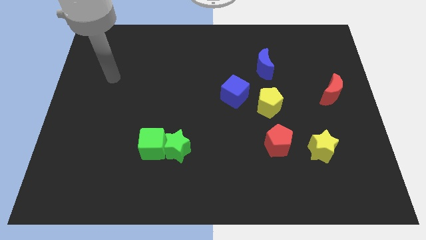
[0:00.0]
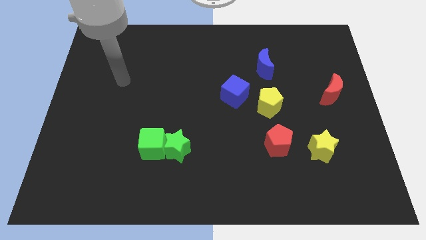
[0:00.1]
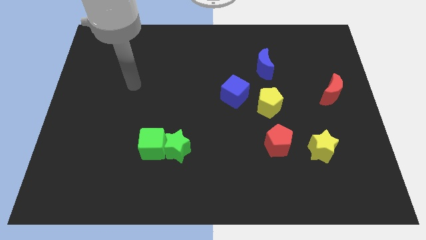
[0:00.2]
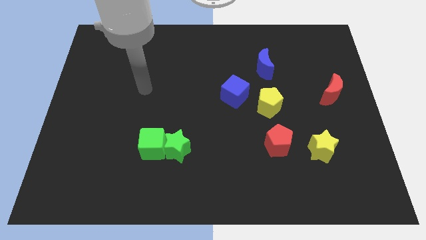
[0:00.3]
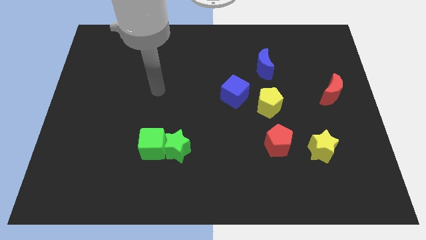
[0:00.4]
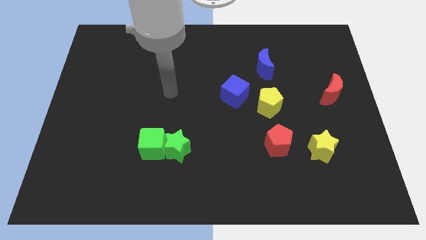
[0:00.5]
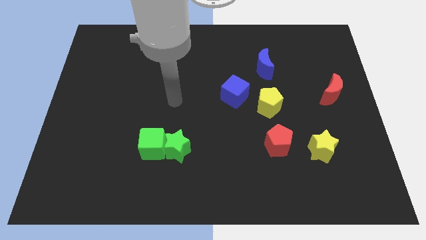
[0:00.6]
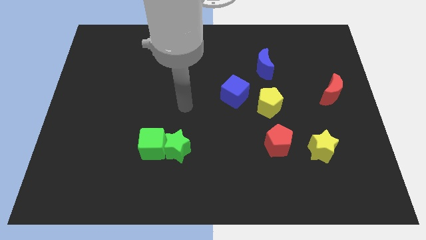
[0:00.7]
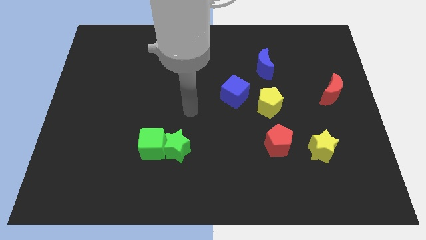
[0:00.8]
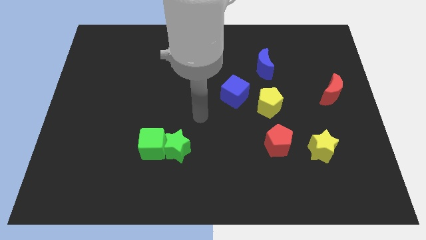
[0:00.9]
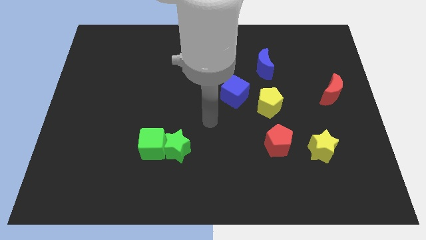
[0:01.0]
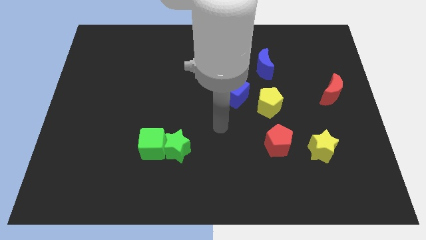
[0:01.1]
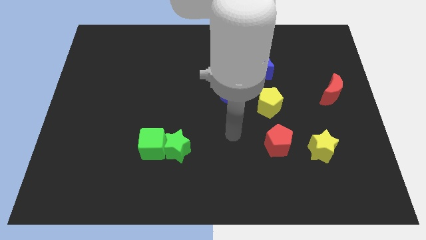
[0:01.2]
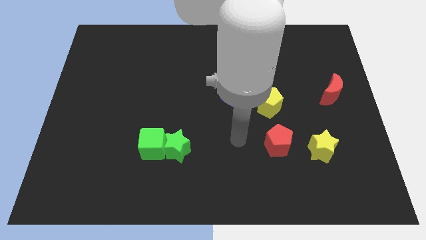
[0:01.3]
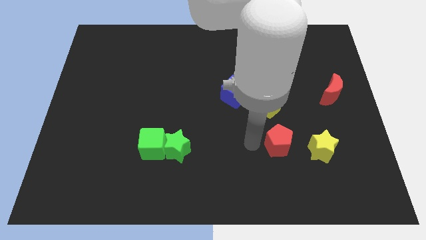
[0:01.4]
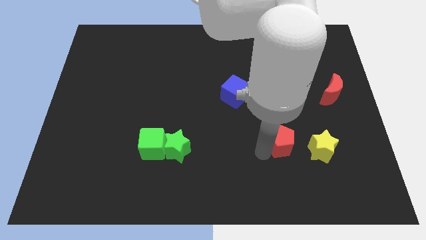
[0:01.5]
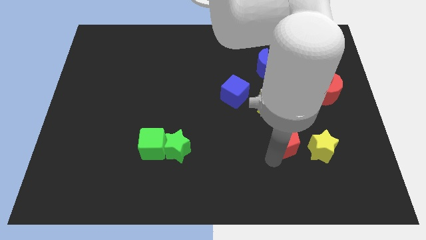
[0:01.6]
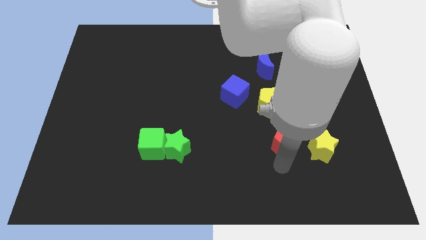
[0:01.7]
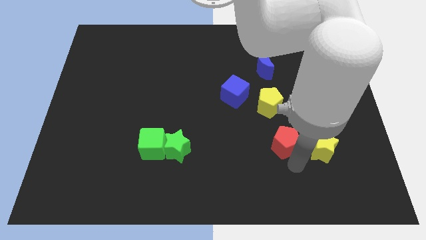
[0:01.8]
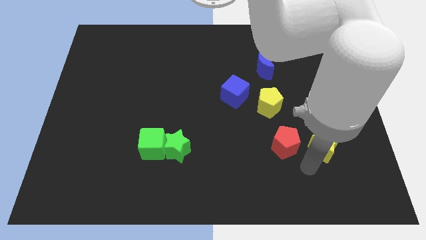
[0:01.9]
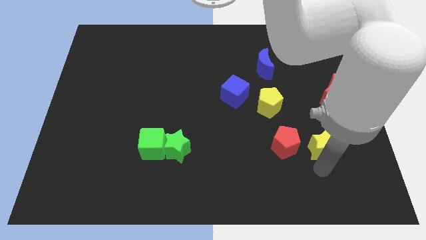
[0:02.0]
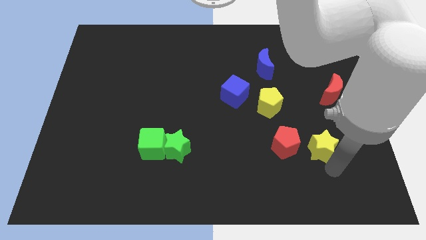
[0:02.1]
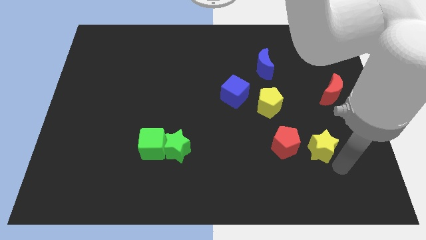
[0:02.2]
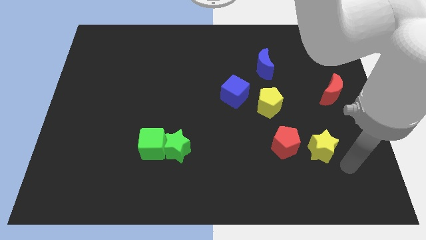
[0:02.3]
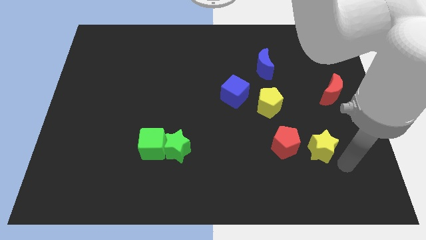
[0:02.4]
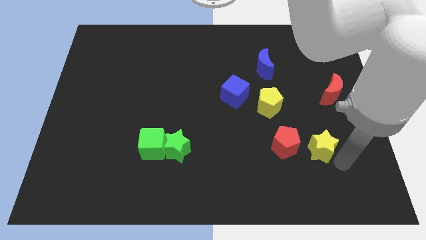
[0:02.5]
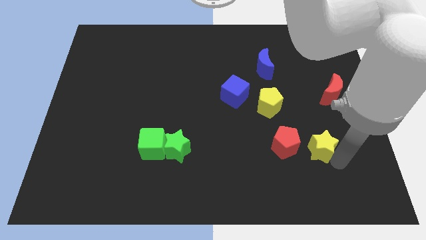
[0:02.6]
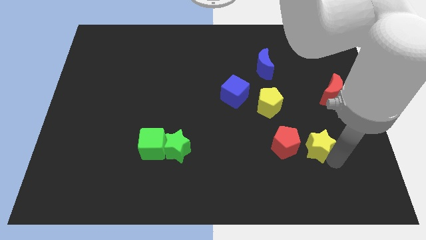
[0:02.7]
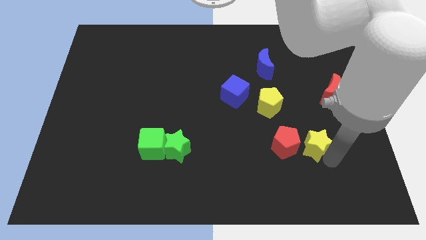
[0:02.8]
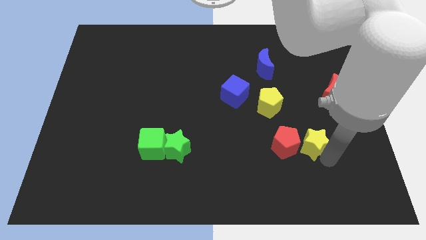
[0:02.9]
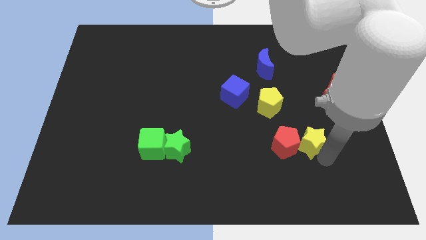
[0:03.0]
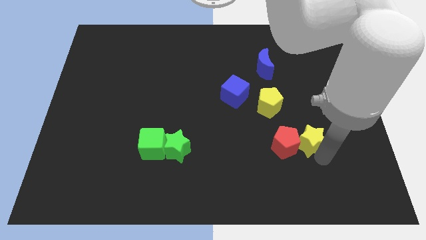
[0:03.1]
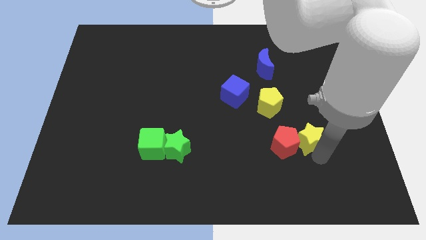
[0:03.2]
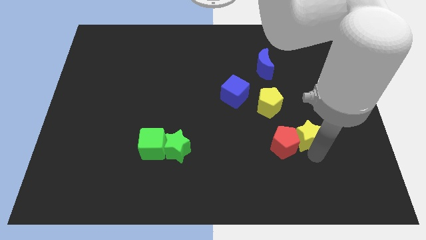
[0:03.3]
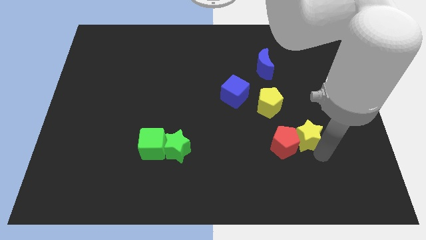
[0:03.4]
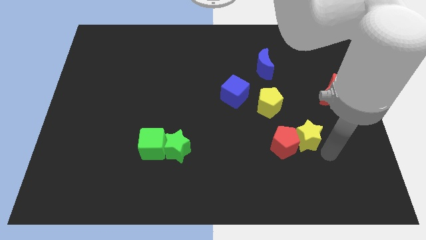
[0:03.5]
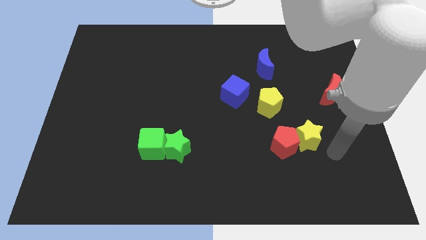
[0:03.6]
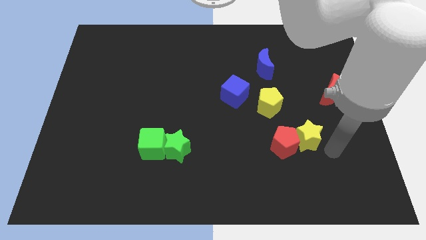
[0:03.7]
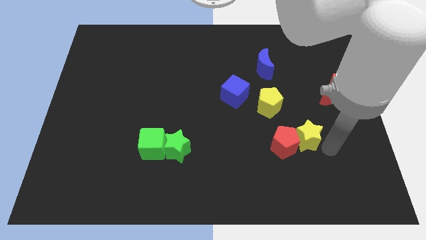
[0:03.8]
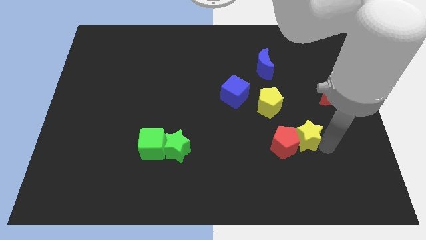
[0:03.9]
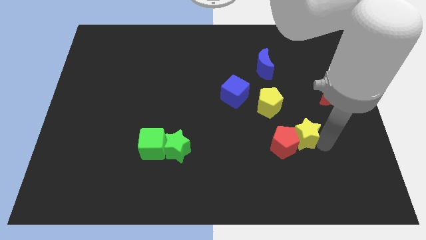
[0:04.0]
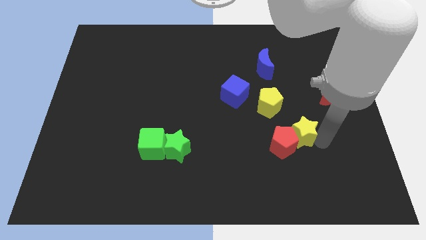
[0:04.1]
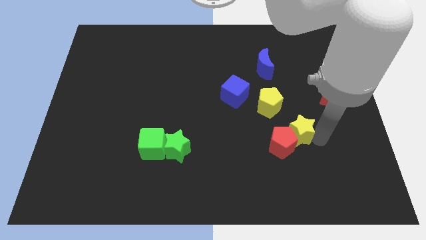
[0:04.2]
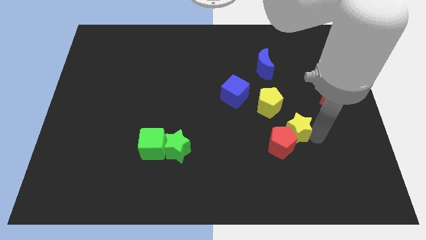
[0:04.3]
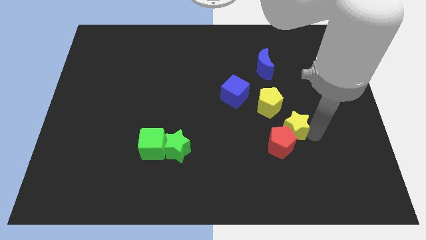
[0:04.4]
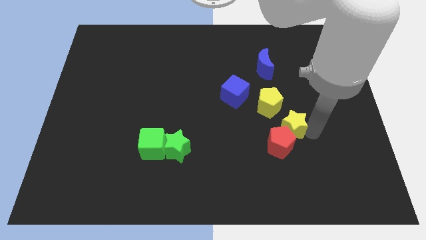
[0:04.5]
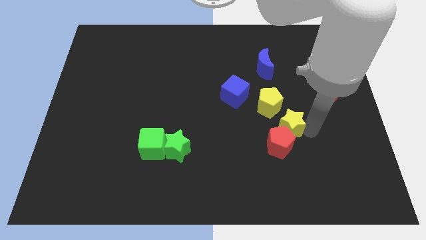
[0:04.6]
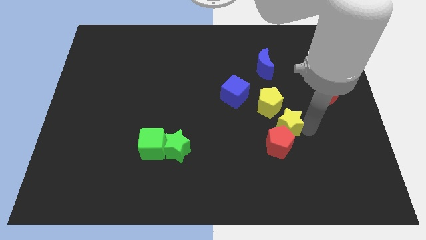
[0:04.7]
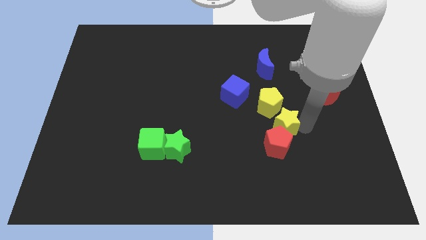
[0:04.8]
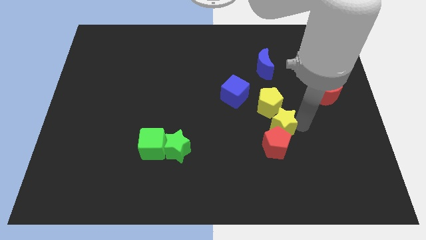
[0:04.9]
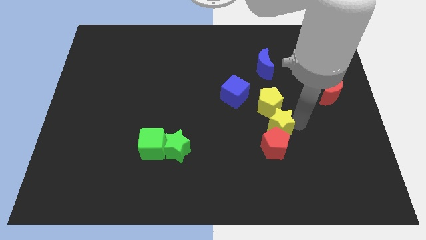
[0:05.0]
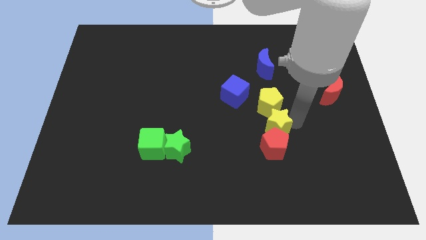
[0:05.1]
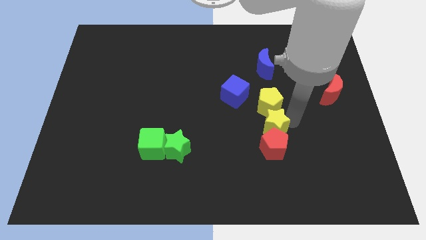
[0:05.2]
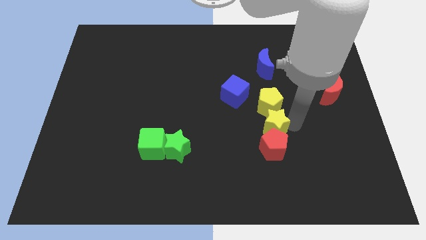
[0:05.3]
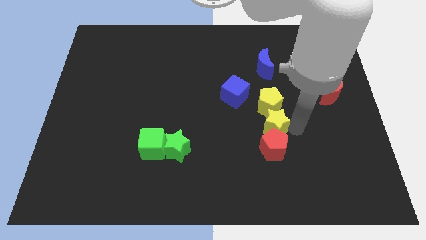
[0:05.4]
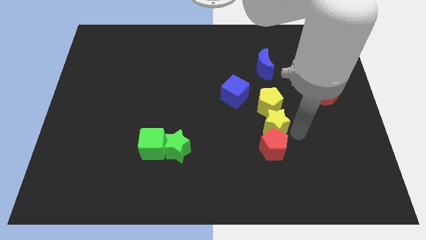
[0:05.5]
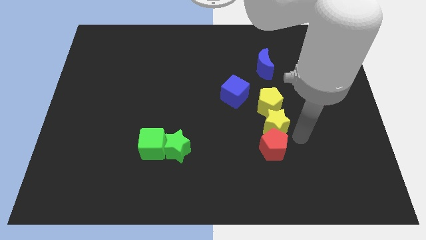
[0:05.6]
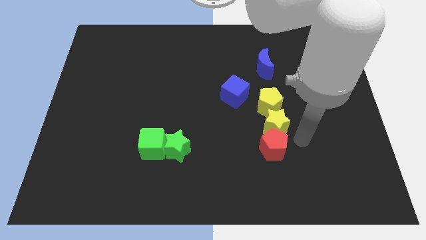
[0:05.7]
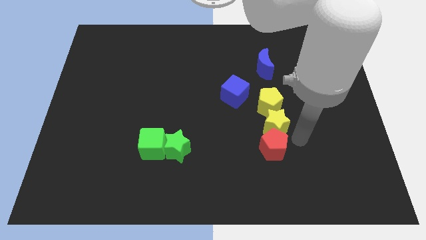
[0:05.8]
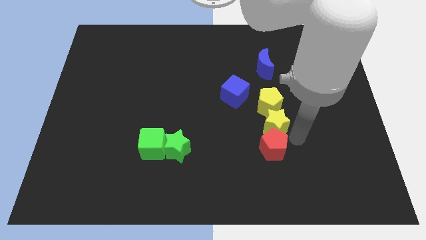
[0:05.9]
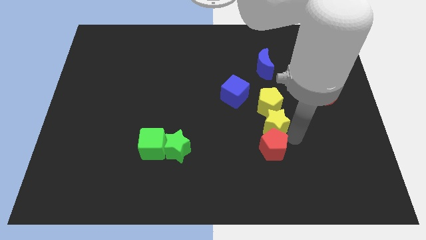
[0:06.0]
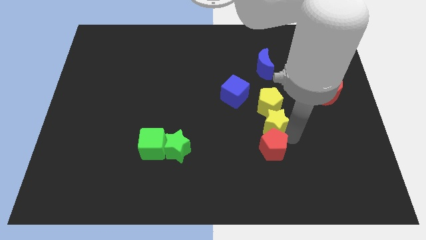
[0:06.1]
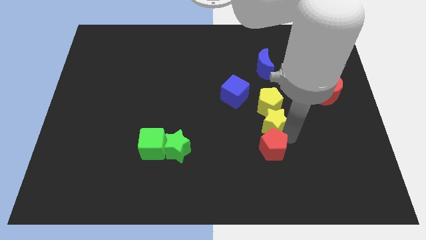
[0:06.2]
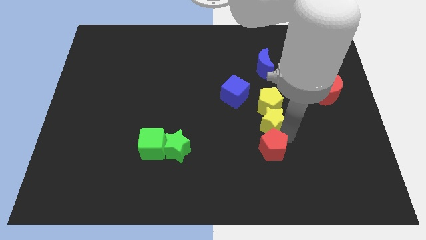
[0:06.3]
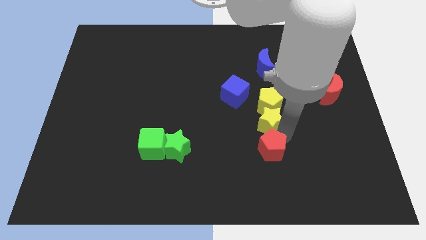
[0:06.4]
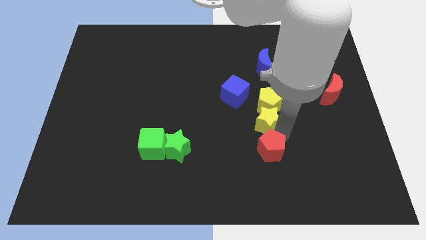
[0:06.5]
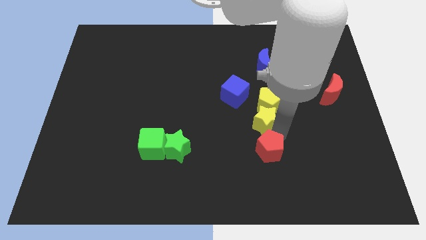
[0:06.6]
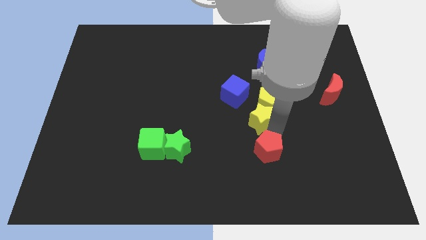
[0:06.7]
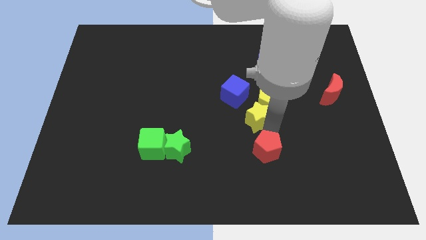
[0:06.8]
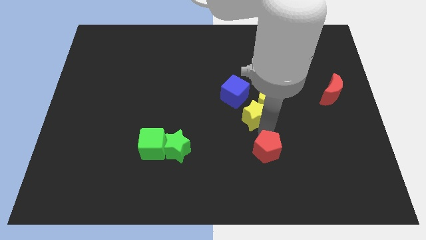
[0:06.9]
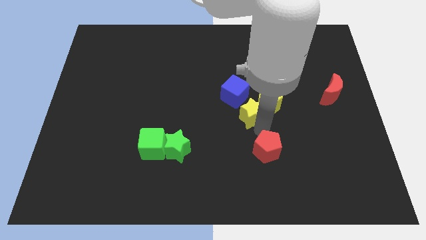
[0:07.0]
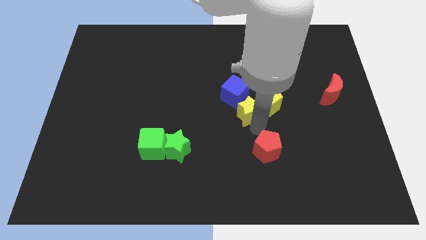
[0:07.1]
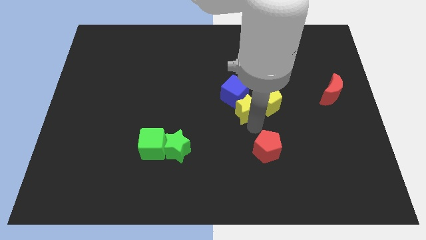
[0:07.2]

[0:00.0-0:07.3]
push the yellow star close to the blue cube
